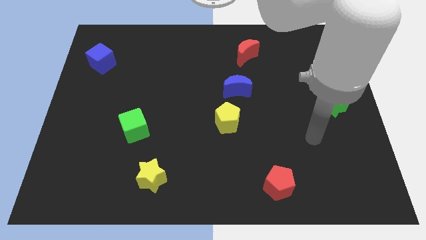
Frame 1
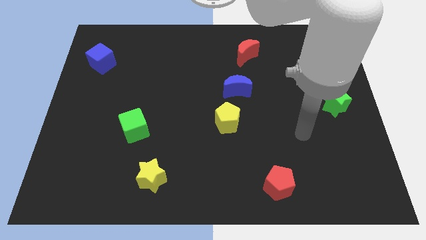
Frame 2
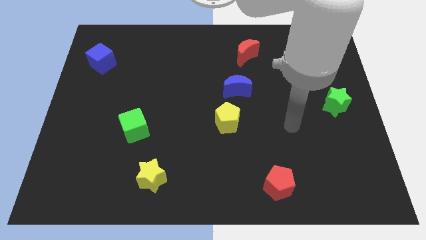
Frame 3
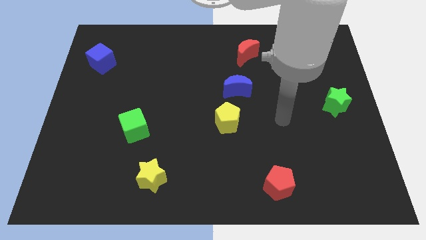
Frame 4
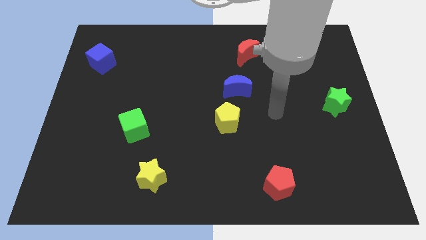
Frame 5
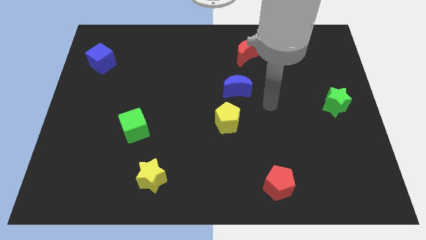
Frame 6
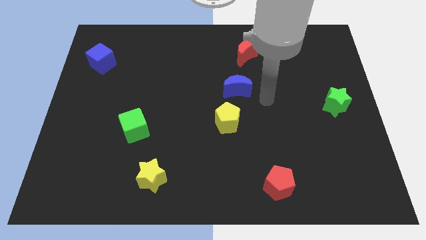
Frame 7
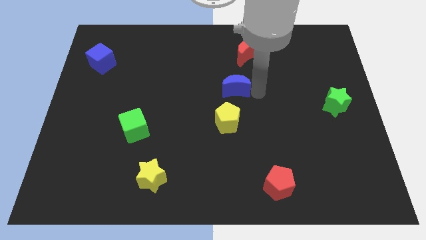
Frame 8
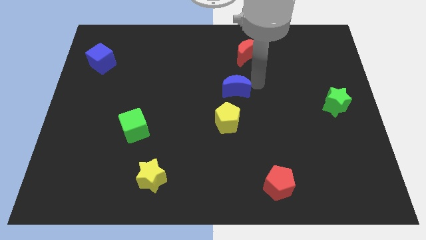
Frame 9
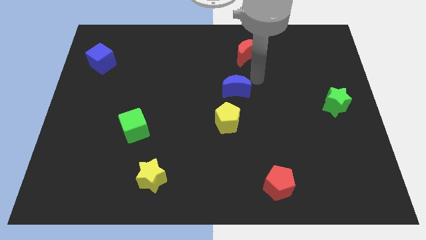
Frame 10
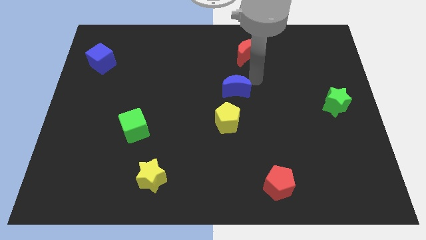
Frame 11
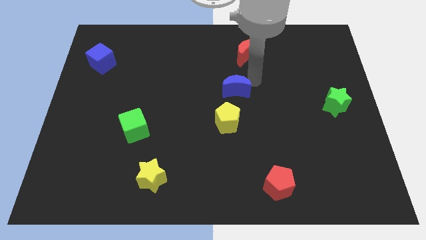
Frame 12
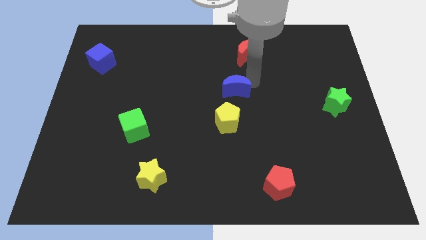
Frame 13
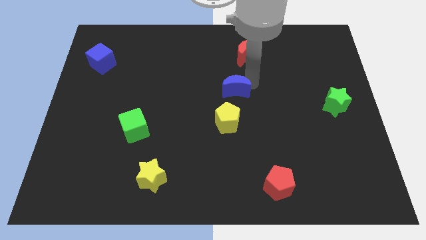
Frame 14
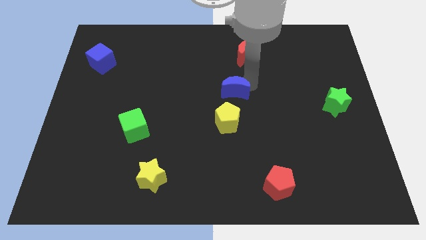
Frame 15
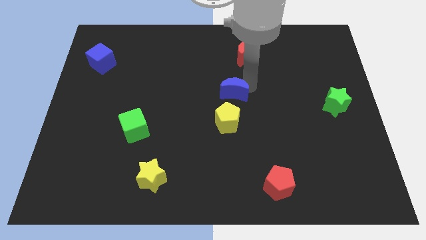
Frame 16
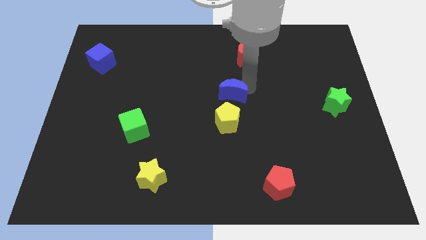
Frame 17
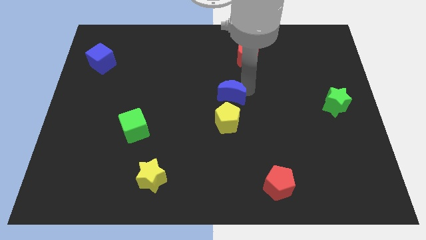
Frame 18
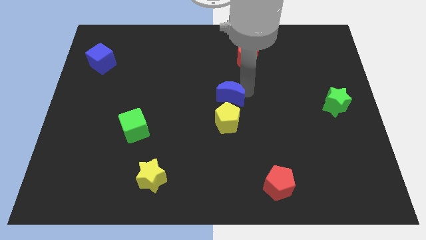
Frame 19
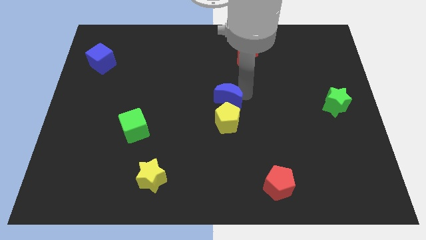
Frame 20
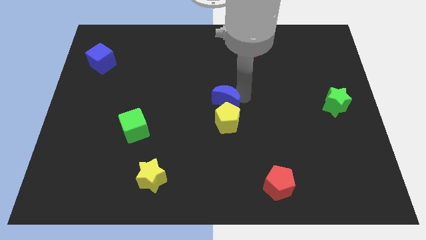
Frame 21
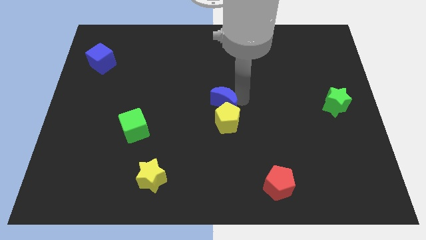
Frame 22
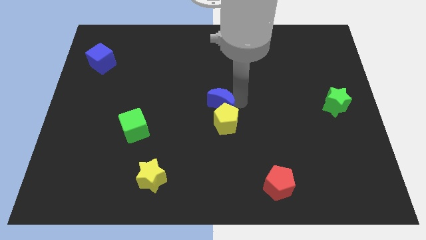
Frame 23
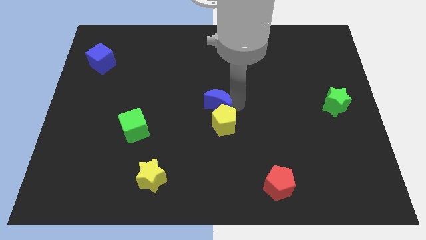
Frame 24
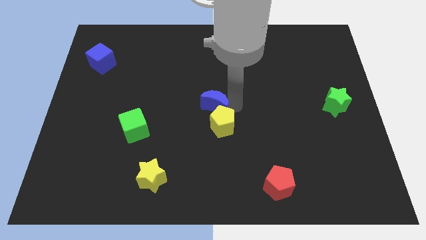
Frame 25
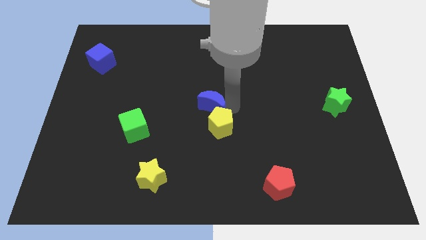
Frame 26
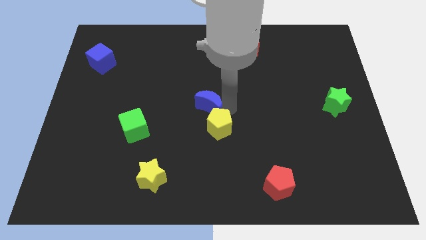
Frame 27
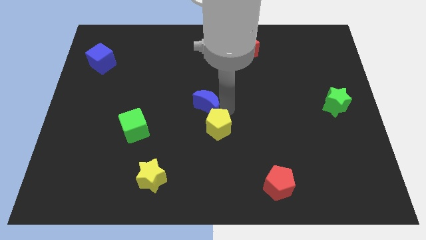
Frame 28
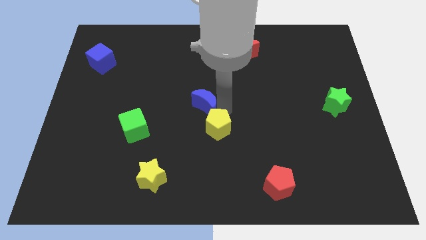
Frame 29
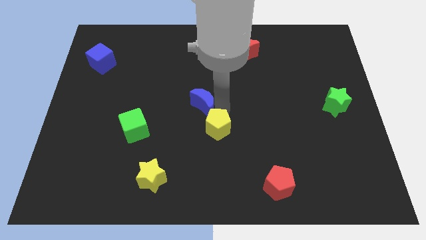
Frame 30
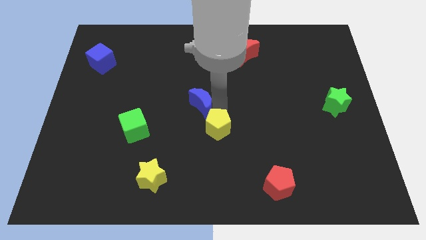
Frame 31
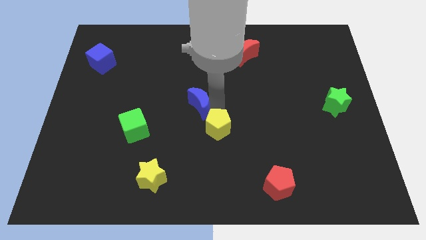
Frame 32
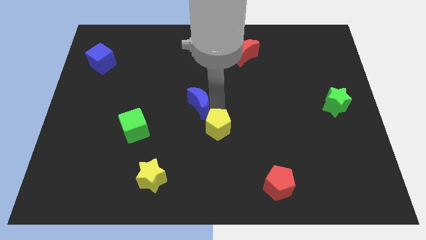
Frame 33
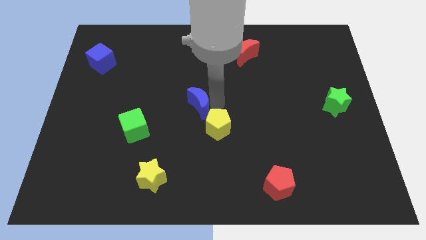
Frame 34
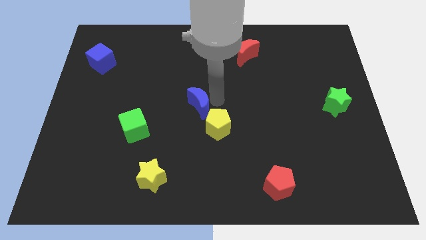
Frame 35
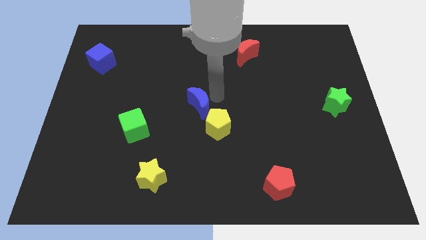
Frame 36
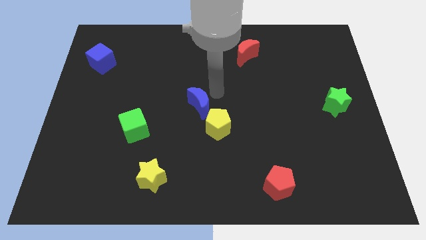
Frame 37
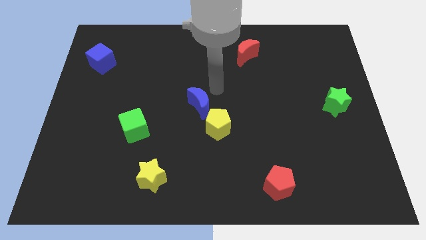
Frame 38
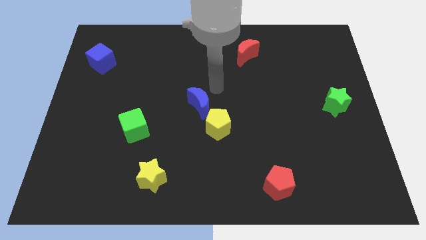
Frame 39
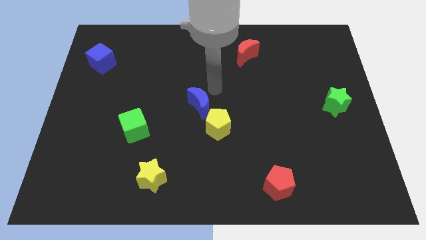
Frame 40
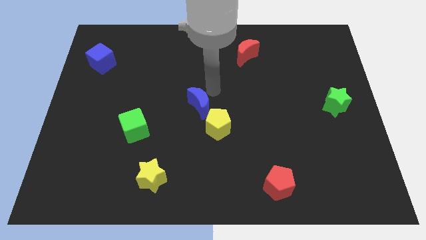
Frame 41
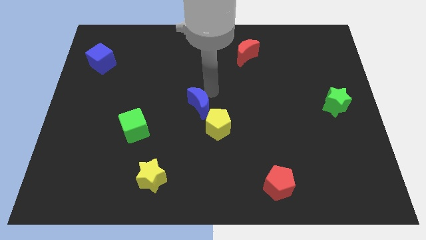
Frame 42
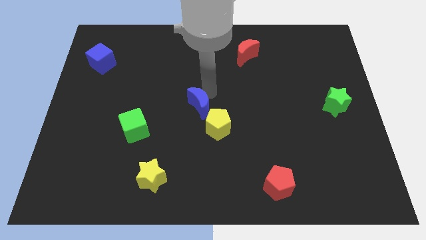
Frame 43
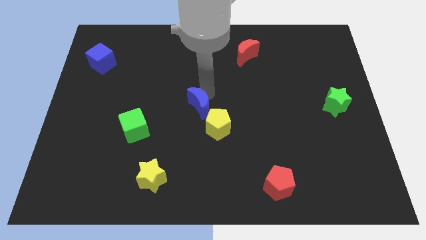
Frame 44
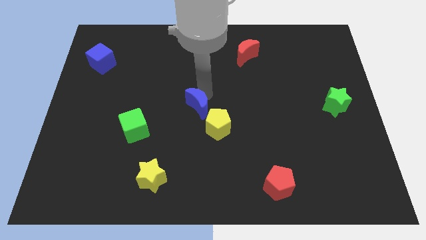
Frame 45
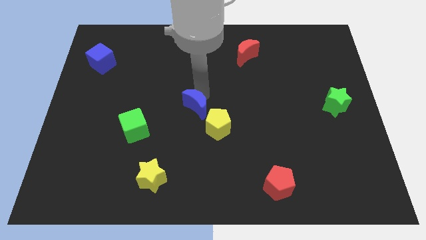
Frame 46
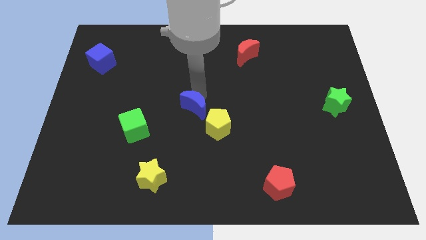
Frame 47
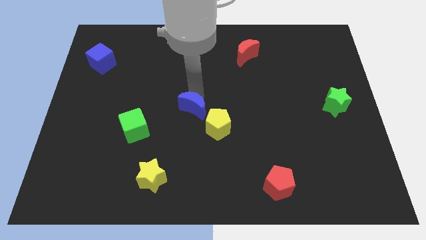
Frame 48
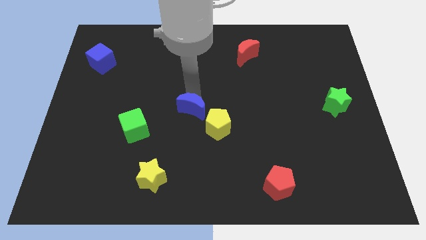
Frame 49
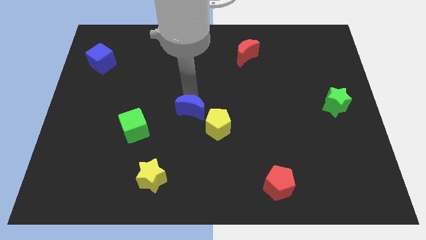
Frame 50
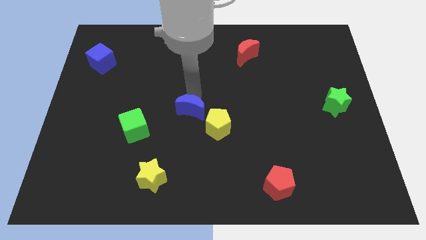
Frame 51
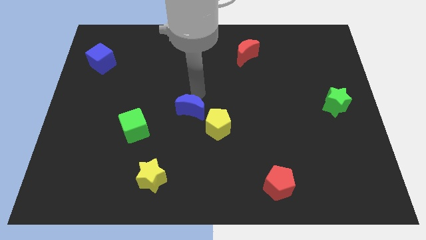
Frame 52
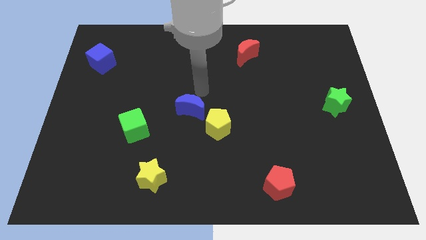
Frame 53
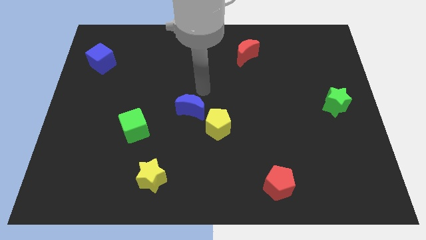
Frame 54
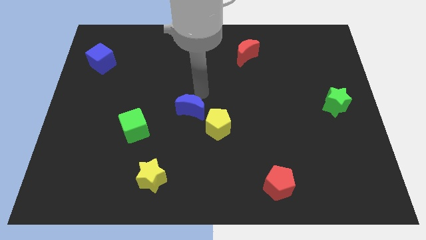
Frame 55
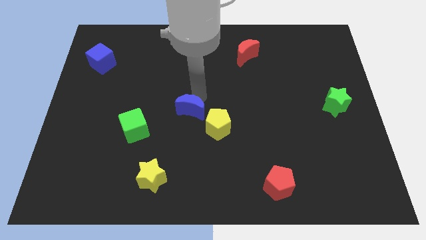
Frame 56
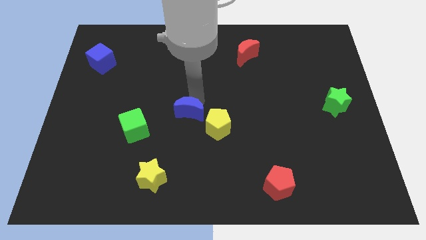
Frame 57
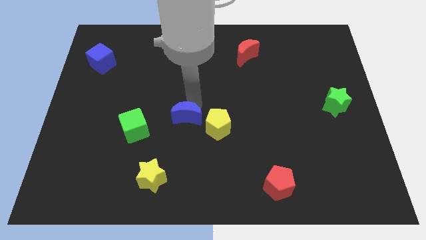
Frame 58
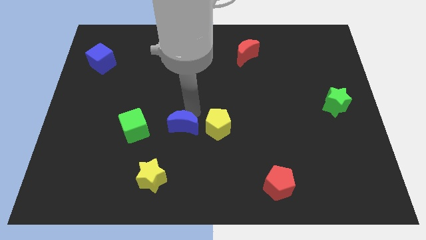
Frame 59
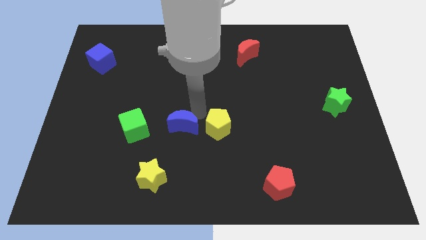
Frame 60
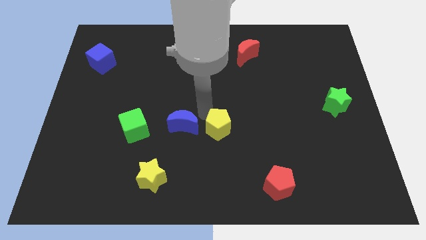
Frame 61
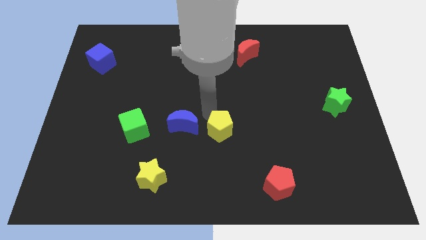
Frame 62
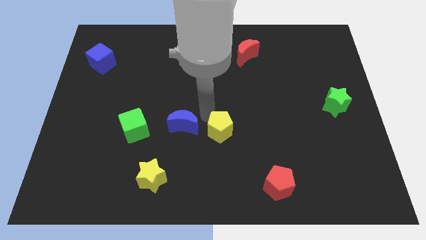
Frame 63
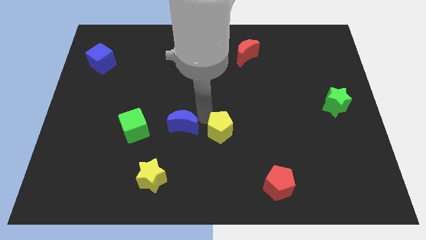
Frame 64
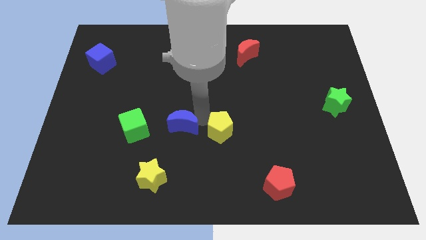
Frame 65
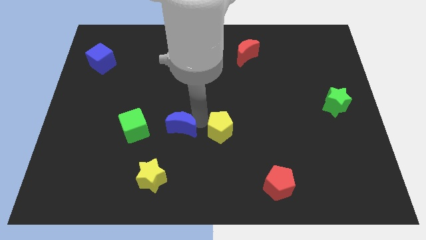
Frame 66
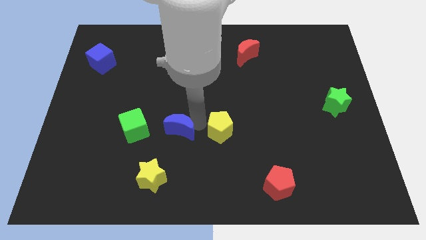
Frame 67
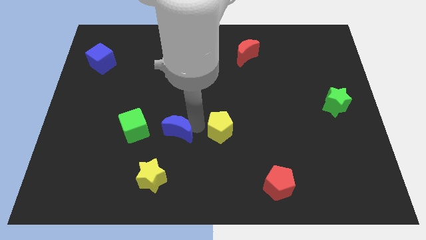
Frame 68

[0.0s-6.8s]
push the blue moon to the top of the yellow star

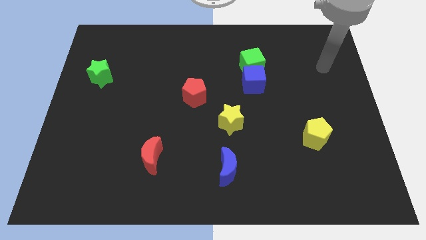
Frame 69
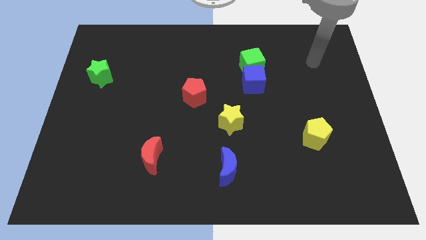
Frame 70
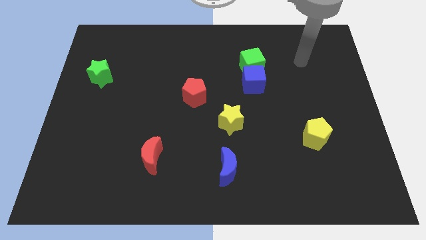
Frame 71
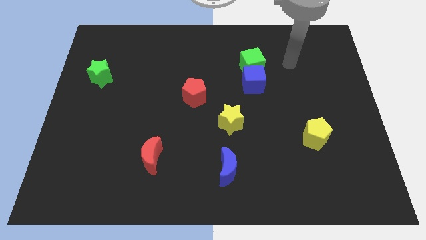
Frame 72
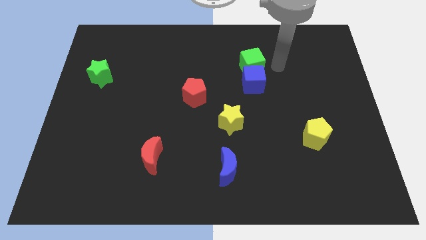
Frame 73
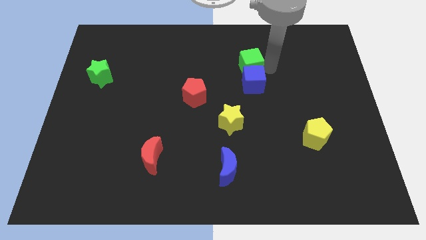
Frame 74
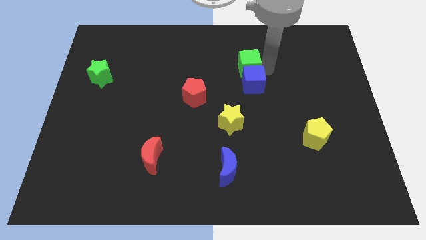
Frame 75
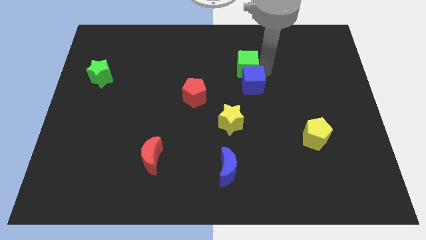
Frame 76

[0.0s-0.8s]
put the blue cube to the right of the red pentagon
